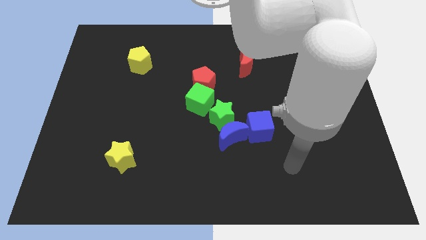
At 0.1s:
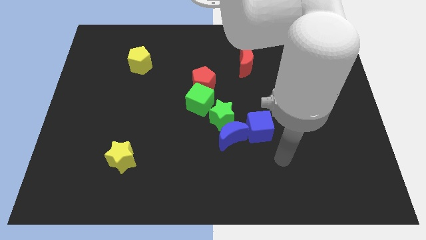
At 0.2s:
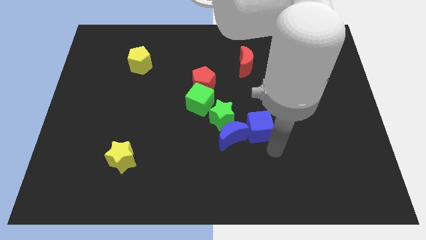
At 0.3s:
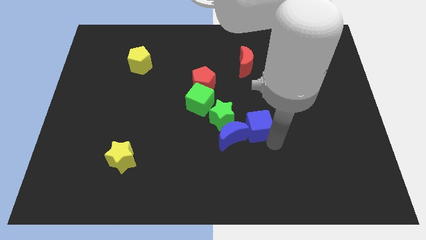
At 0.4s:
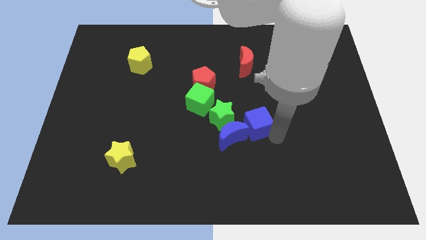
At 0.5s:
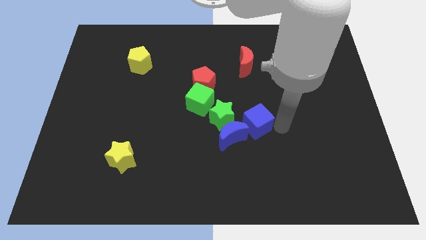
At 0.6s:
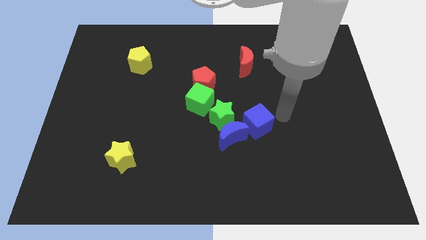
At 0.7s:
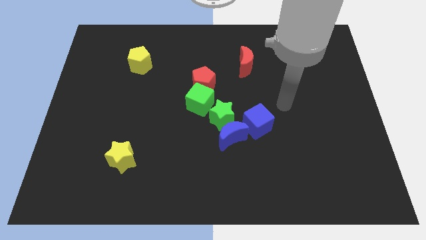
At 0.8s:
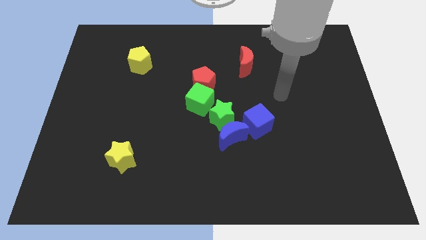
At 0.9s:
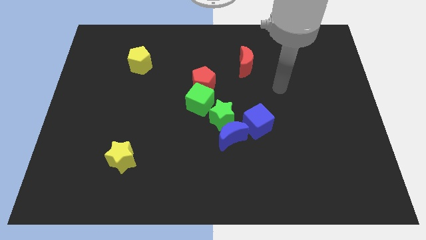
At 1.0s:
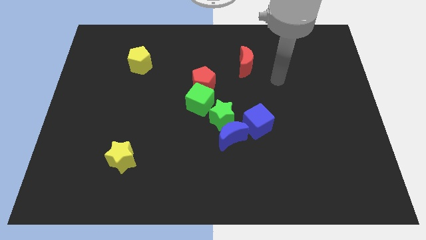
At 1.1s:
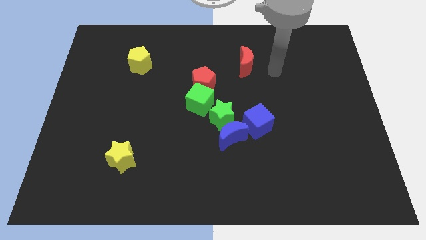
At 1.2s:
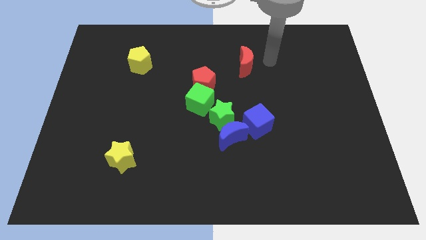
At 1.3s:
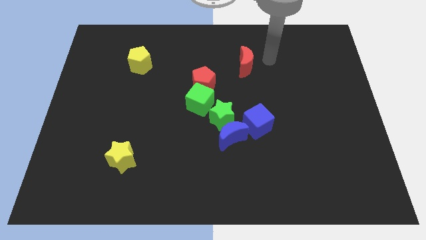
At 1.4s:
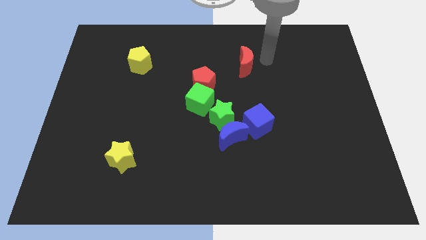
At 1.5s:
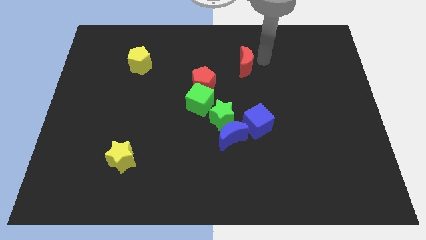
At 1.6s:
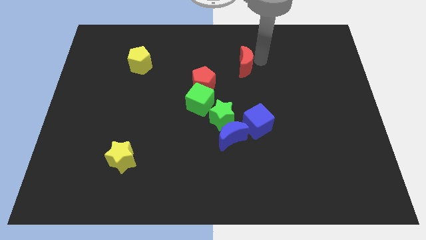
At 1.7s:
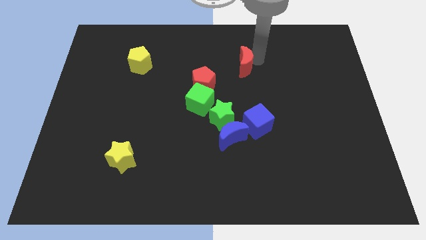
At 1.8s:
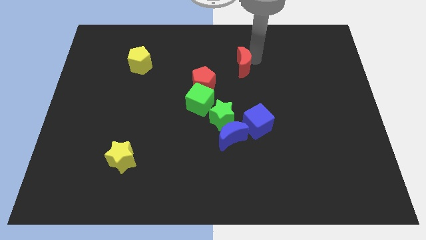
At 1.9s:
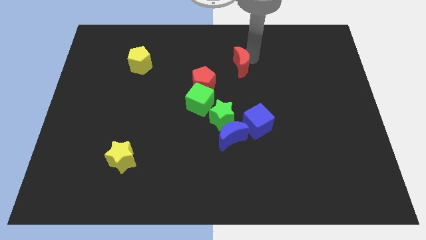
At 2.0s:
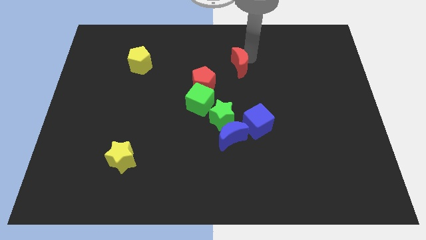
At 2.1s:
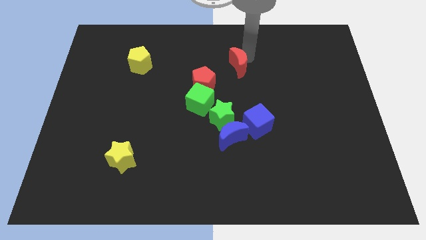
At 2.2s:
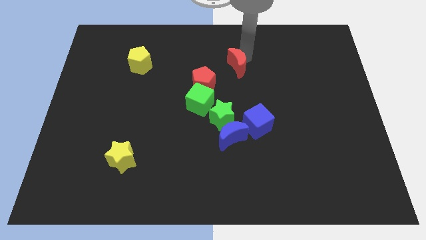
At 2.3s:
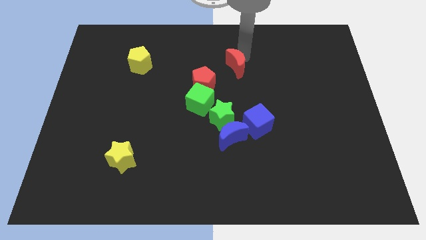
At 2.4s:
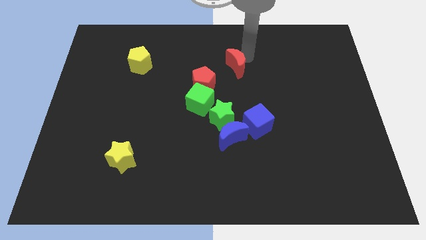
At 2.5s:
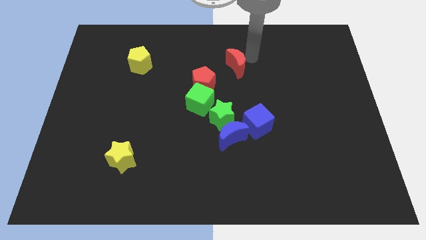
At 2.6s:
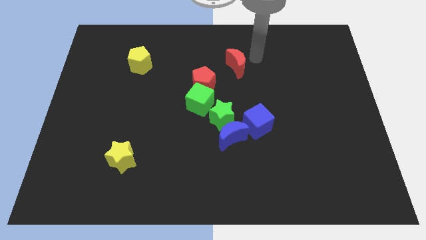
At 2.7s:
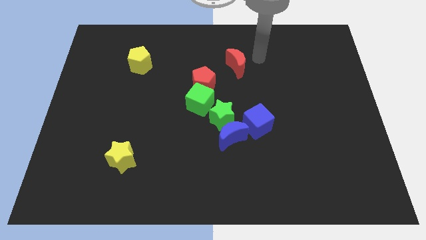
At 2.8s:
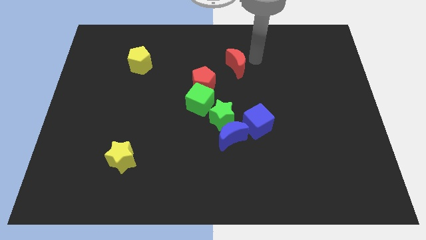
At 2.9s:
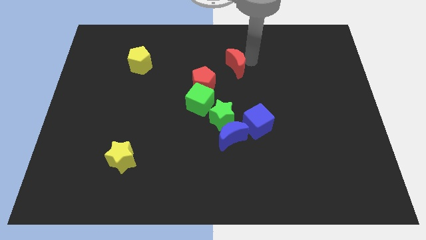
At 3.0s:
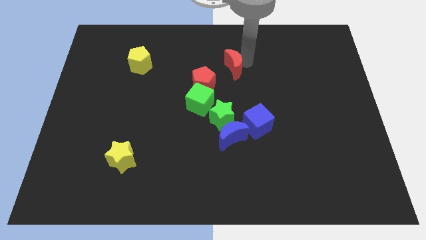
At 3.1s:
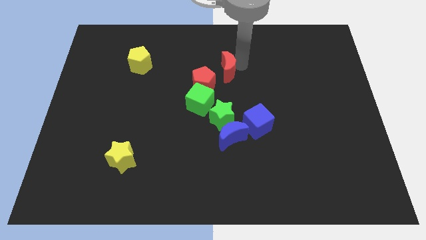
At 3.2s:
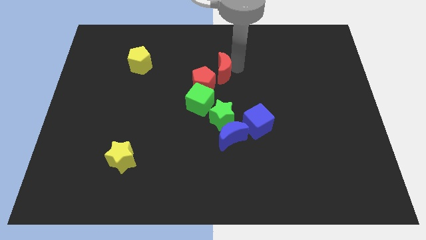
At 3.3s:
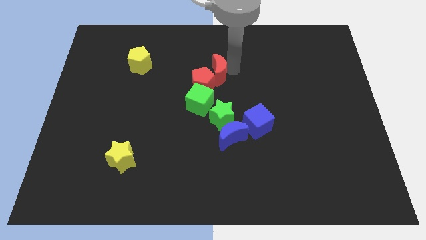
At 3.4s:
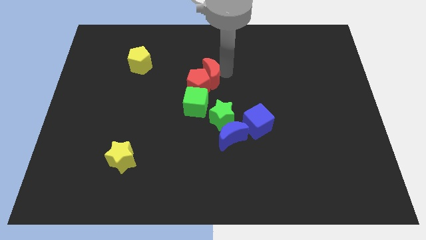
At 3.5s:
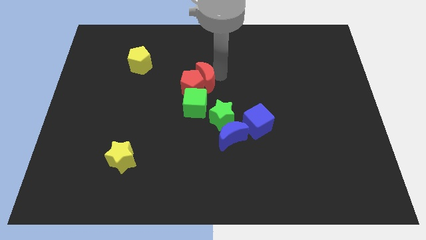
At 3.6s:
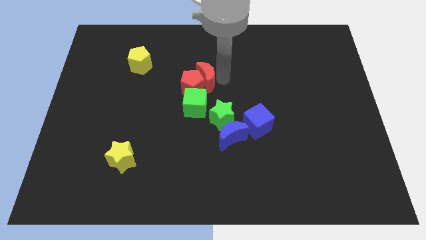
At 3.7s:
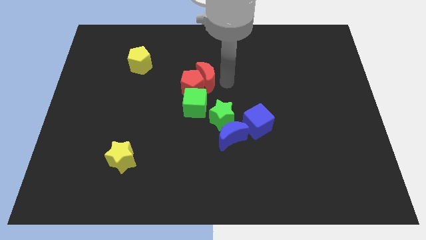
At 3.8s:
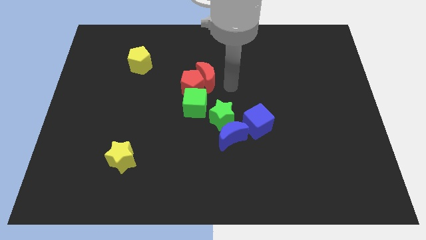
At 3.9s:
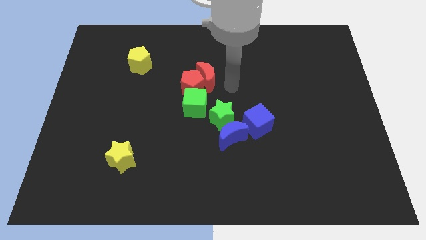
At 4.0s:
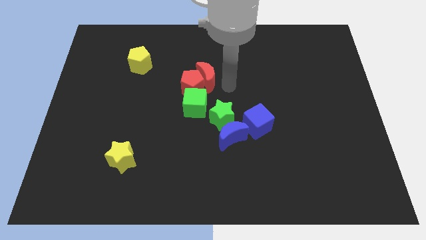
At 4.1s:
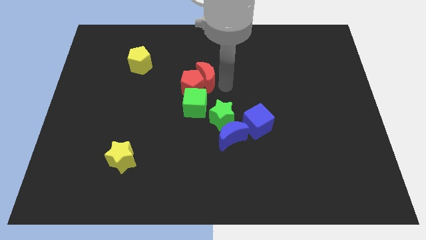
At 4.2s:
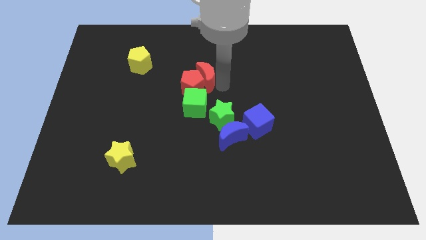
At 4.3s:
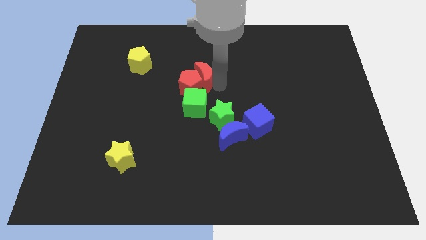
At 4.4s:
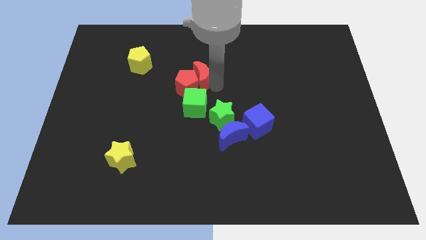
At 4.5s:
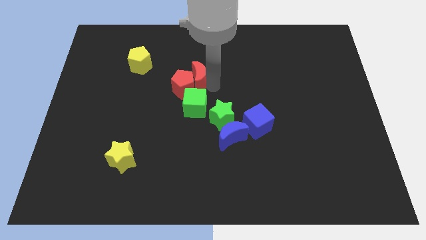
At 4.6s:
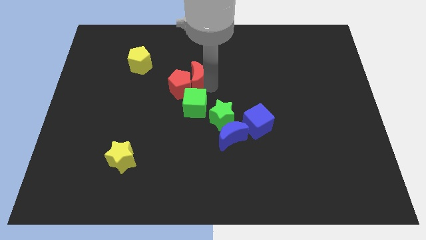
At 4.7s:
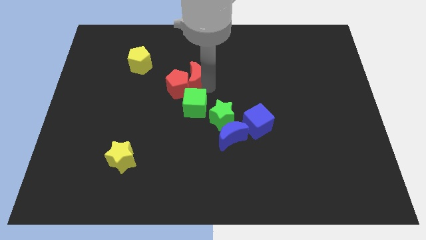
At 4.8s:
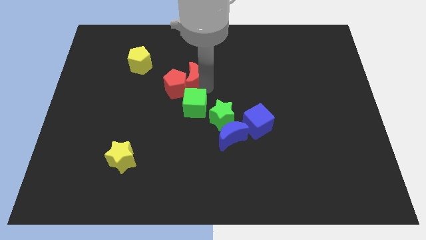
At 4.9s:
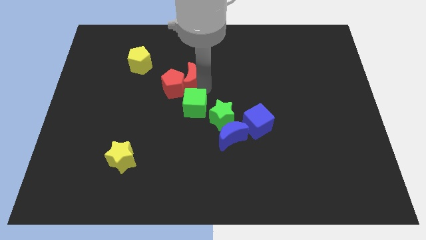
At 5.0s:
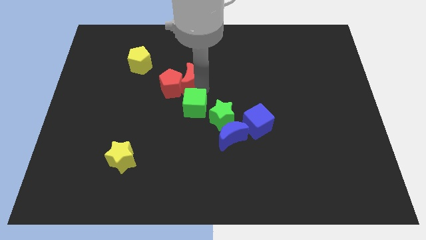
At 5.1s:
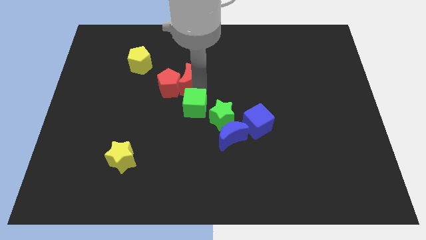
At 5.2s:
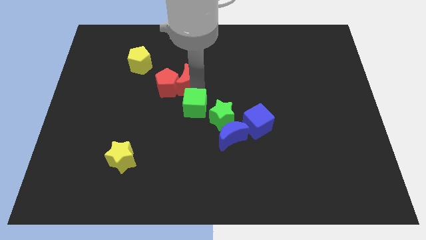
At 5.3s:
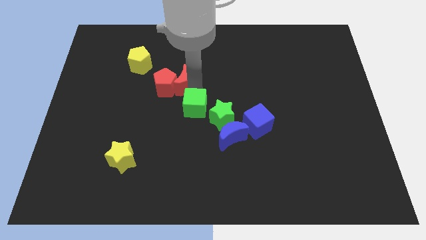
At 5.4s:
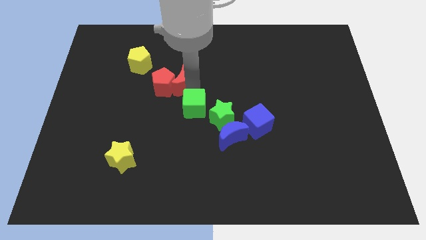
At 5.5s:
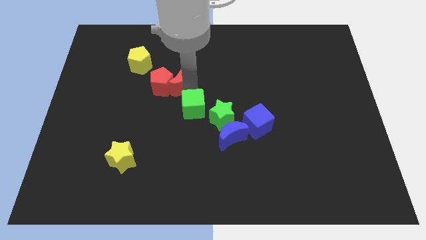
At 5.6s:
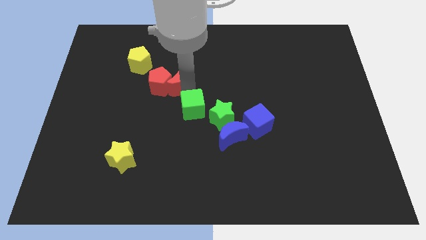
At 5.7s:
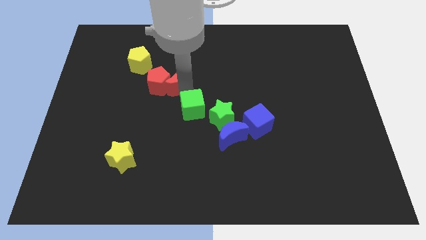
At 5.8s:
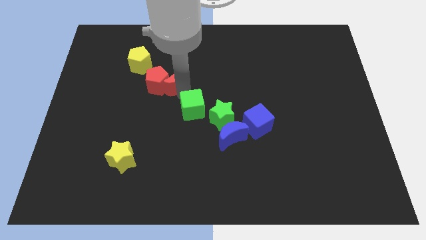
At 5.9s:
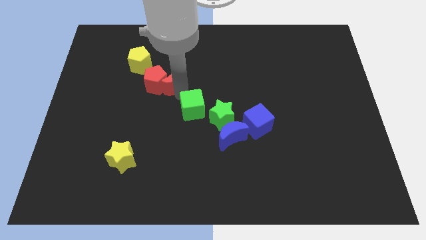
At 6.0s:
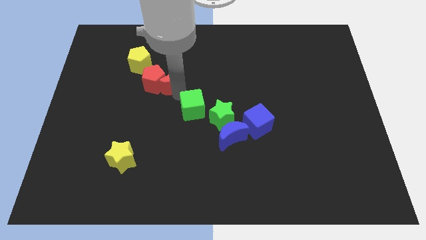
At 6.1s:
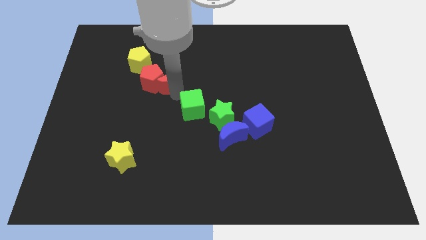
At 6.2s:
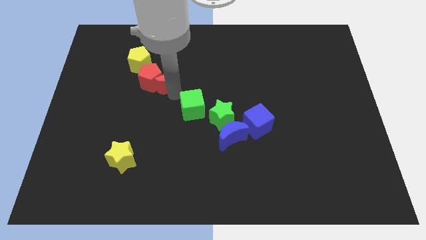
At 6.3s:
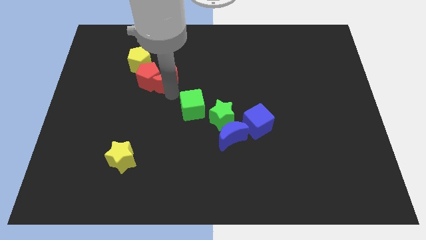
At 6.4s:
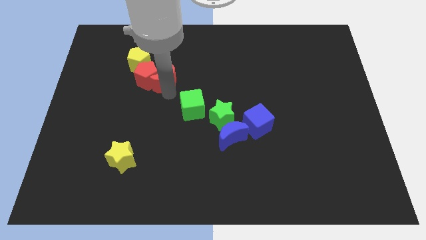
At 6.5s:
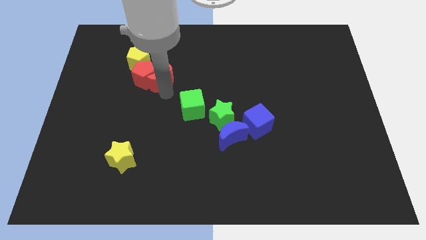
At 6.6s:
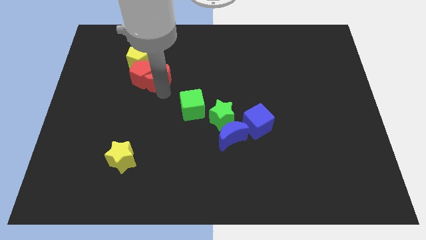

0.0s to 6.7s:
slide the red moon to the left

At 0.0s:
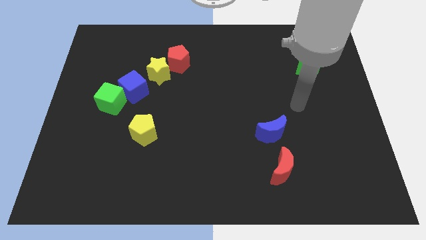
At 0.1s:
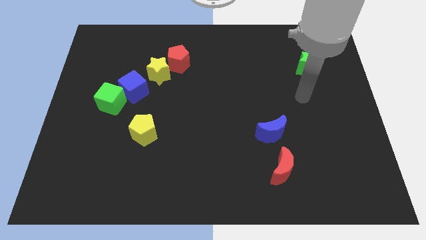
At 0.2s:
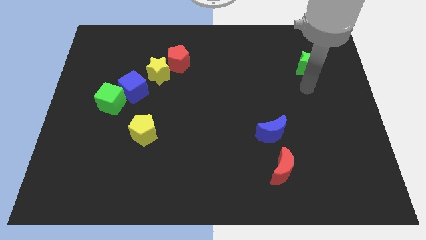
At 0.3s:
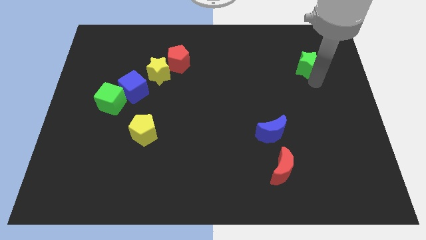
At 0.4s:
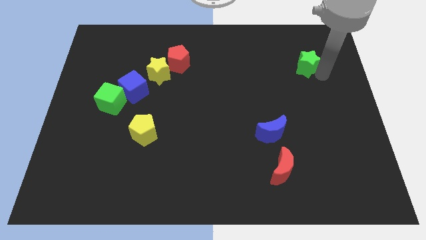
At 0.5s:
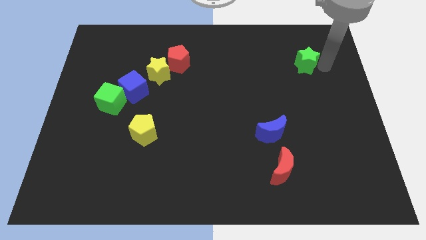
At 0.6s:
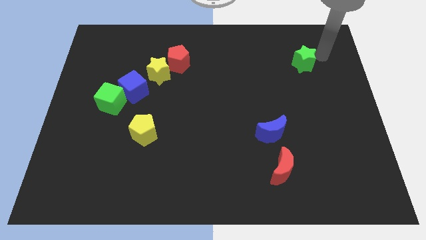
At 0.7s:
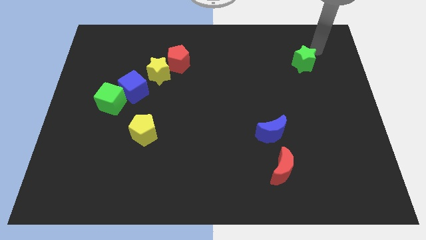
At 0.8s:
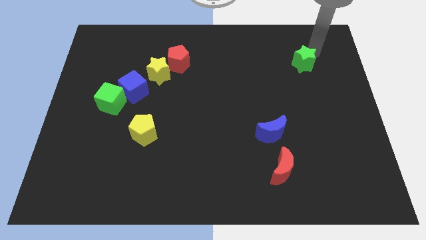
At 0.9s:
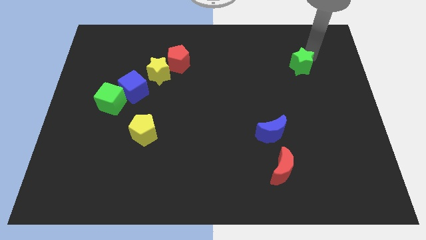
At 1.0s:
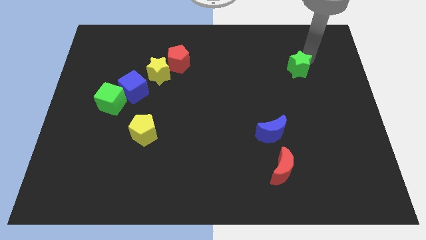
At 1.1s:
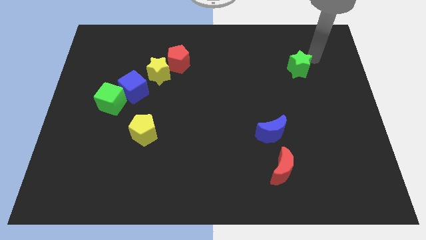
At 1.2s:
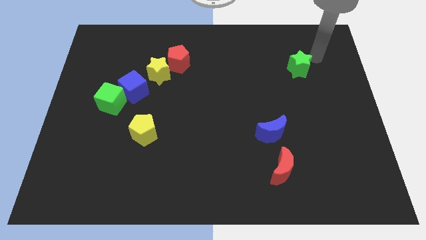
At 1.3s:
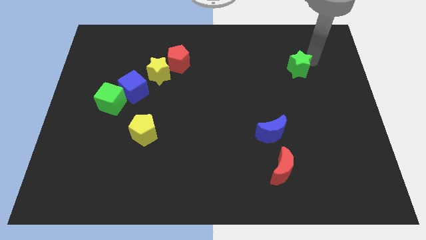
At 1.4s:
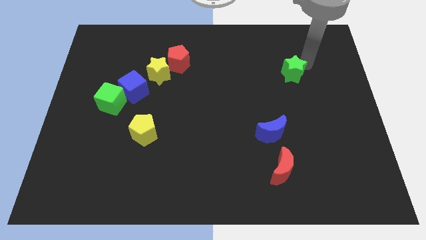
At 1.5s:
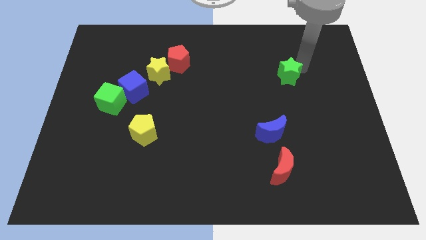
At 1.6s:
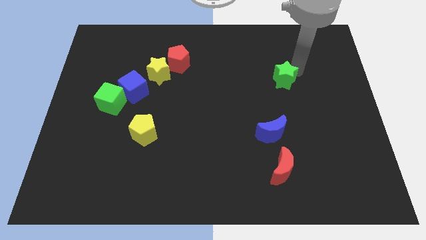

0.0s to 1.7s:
slide the green star somewhat downwards and to the left diagonally
